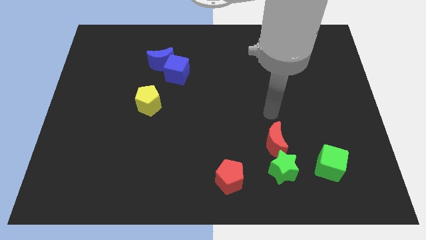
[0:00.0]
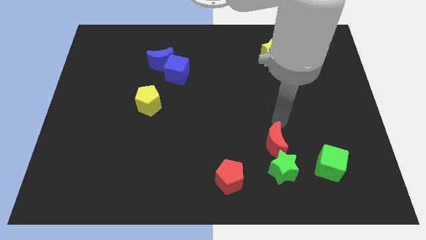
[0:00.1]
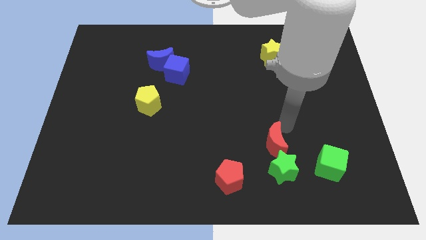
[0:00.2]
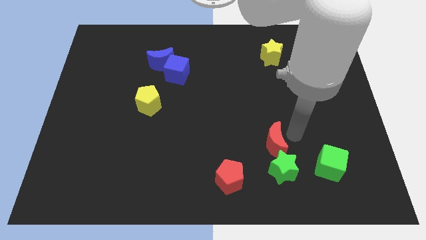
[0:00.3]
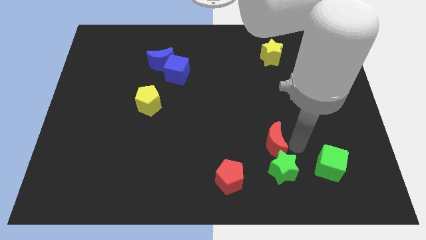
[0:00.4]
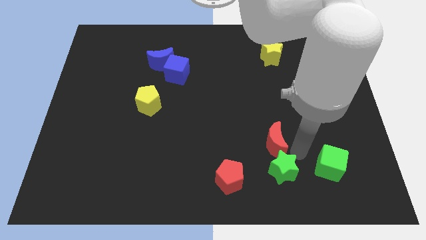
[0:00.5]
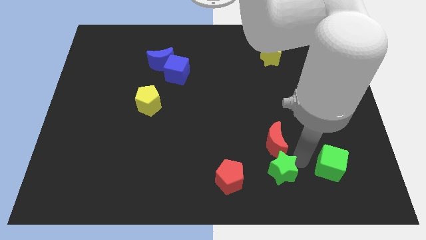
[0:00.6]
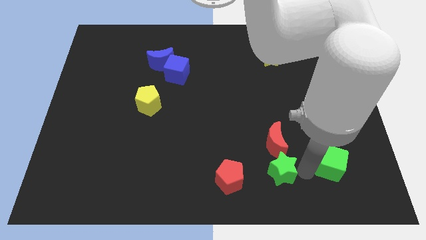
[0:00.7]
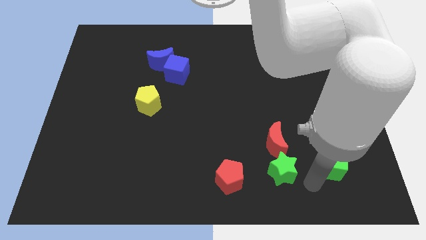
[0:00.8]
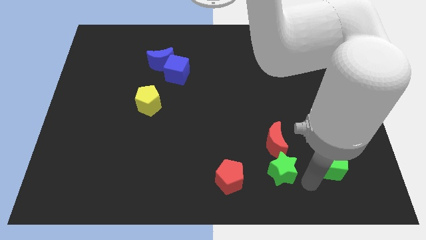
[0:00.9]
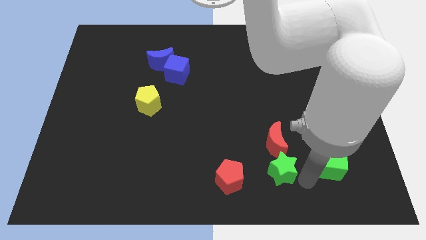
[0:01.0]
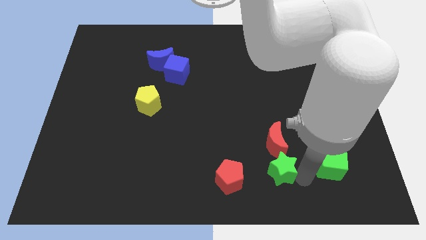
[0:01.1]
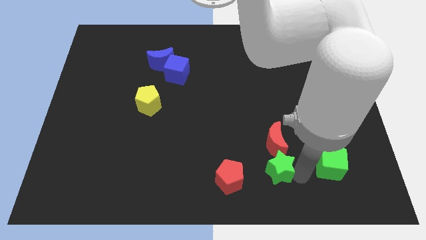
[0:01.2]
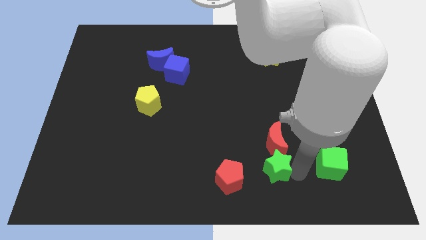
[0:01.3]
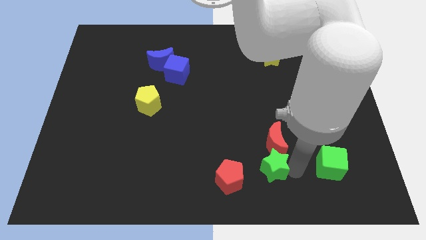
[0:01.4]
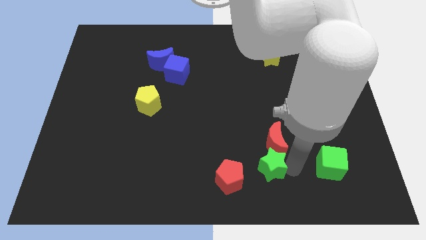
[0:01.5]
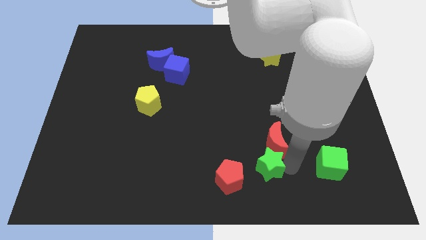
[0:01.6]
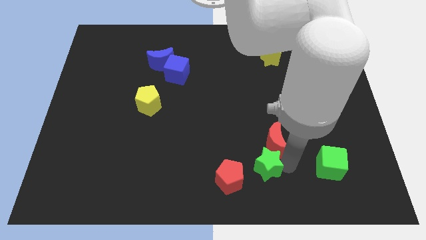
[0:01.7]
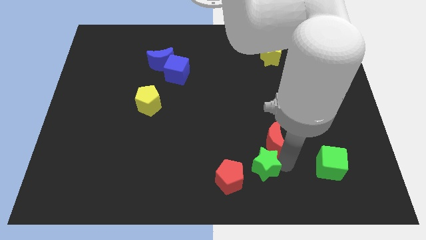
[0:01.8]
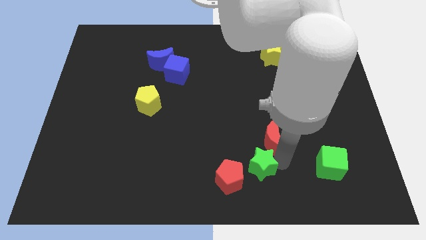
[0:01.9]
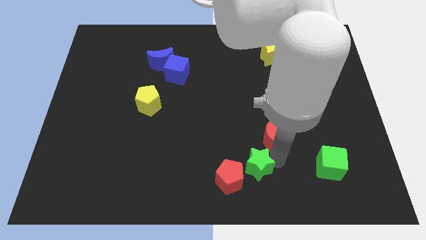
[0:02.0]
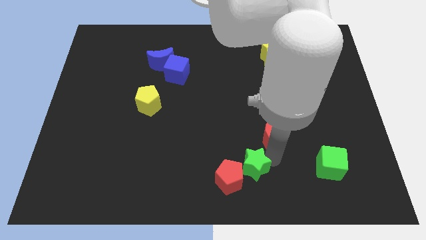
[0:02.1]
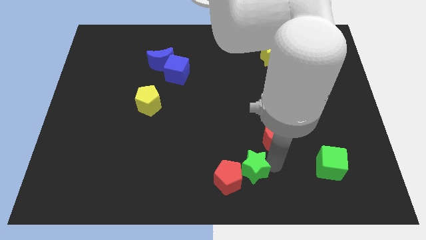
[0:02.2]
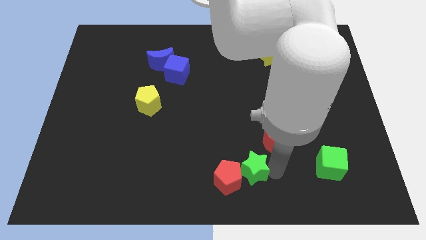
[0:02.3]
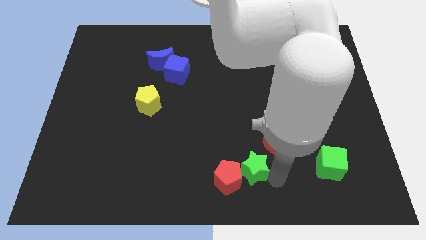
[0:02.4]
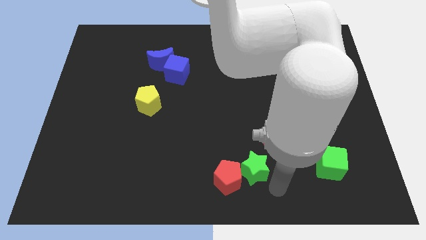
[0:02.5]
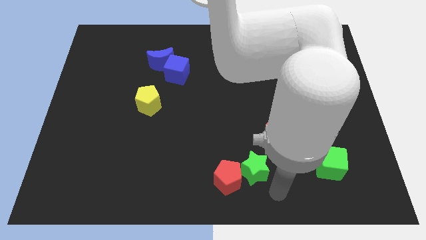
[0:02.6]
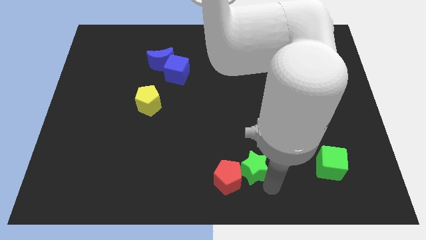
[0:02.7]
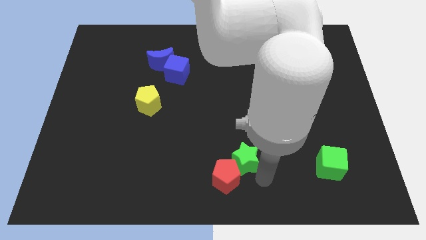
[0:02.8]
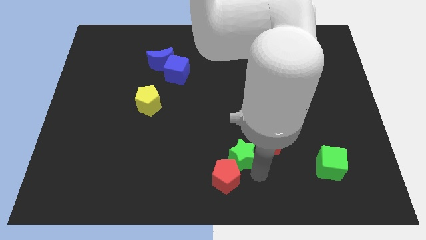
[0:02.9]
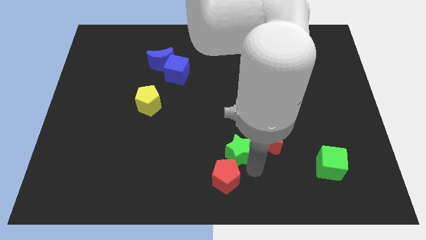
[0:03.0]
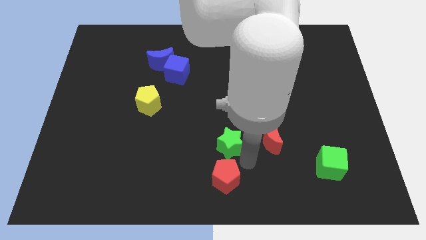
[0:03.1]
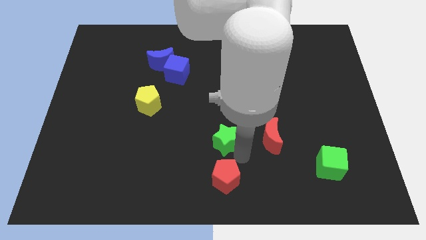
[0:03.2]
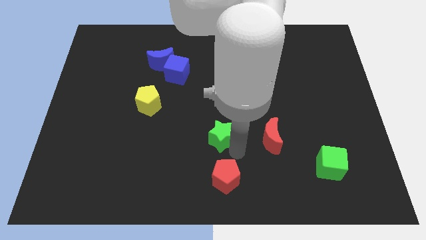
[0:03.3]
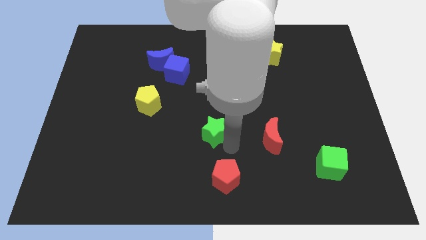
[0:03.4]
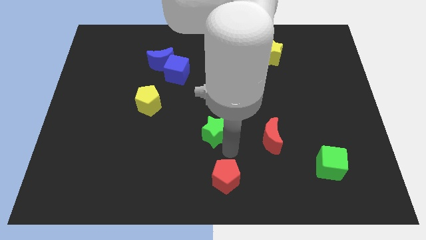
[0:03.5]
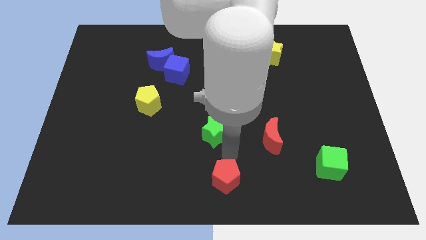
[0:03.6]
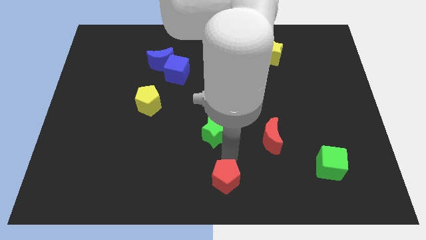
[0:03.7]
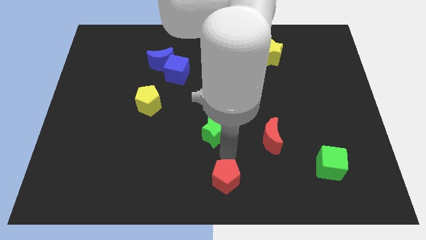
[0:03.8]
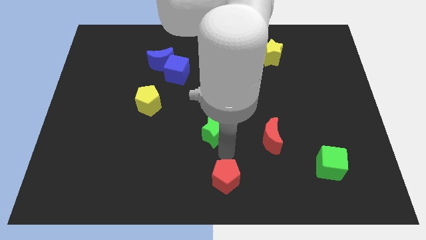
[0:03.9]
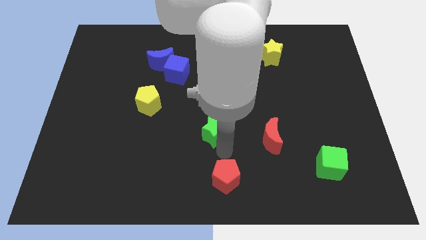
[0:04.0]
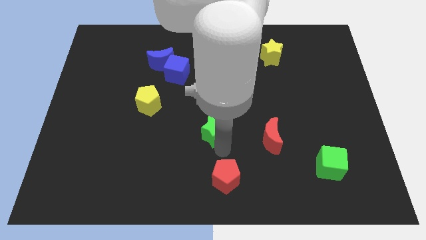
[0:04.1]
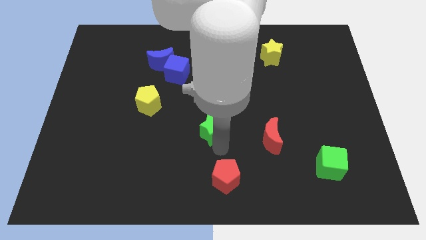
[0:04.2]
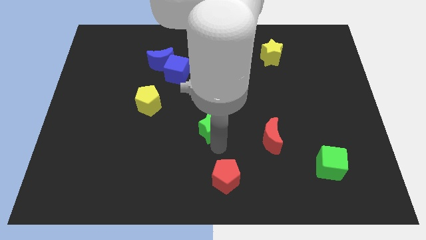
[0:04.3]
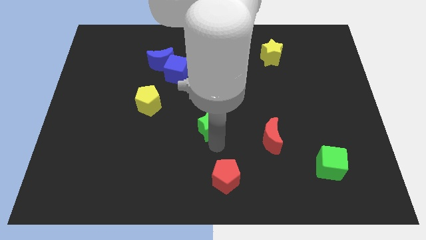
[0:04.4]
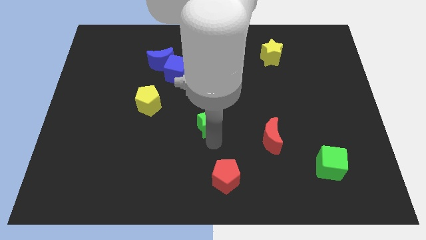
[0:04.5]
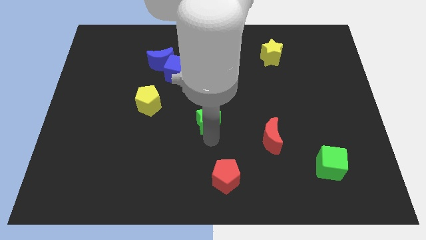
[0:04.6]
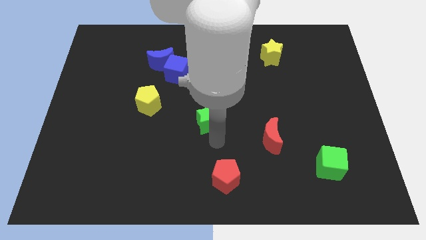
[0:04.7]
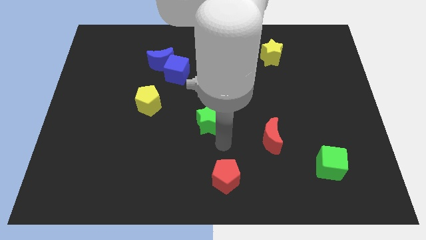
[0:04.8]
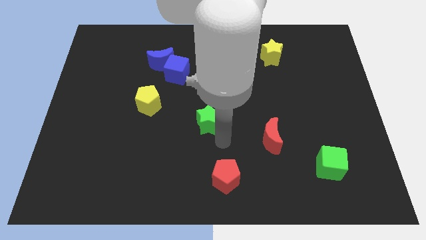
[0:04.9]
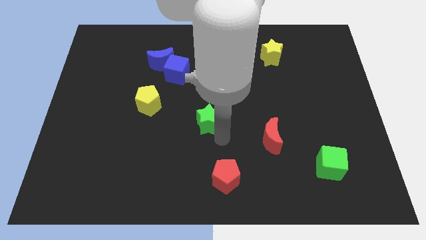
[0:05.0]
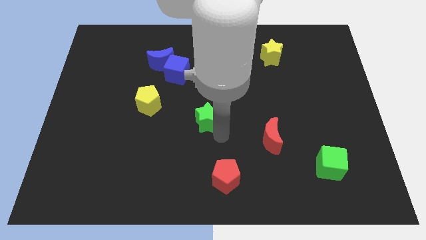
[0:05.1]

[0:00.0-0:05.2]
push the green star upwards and then to the left

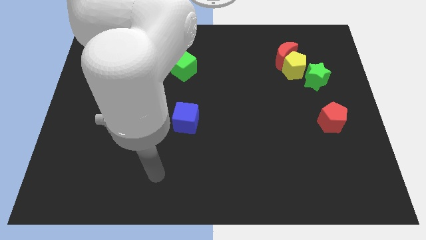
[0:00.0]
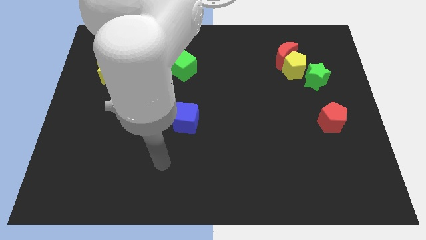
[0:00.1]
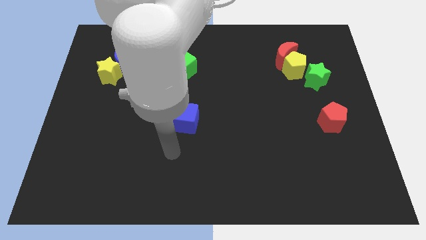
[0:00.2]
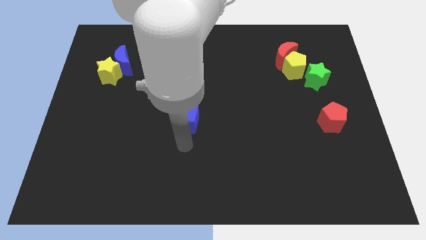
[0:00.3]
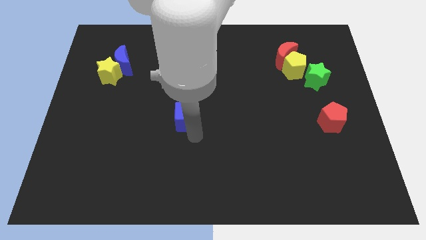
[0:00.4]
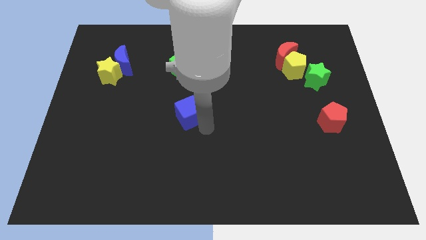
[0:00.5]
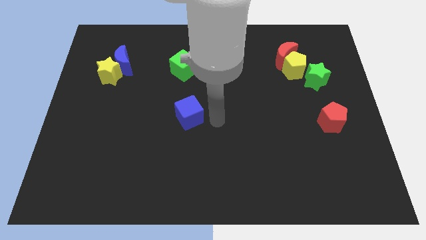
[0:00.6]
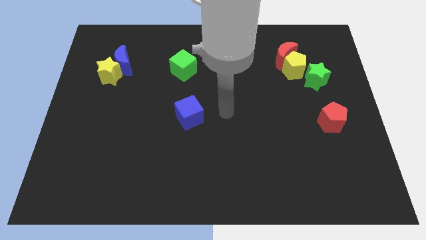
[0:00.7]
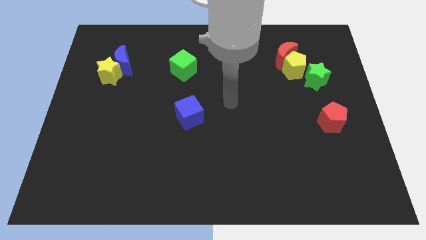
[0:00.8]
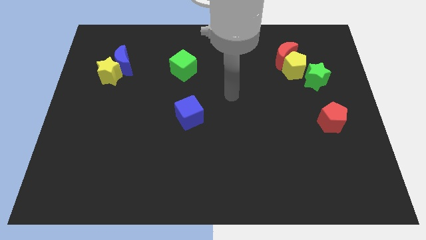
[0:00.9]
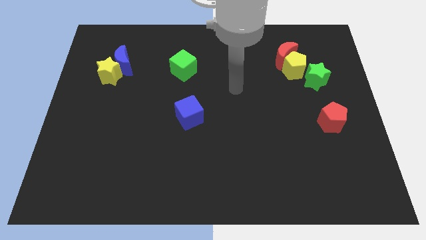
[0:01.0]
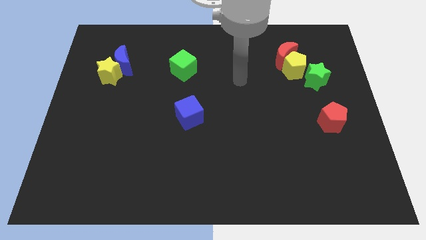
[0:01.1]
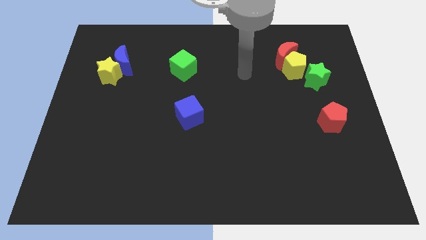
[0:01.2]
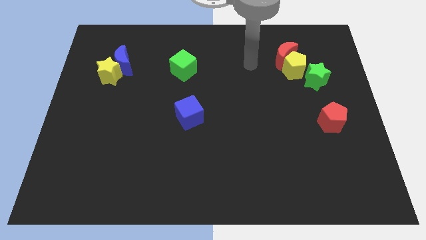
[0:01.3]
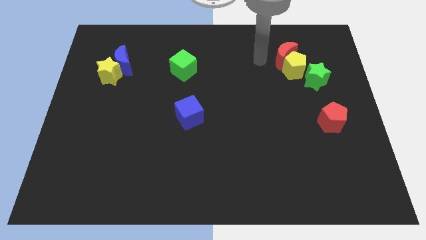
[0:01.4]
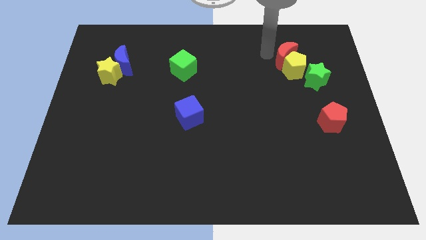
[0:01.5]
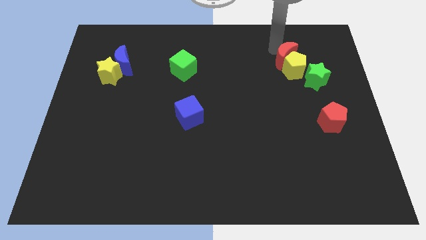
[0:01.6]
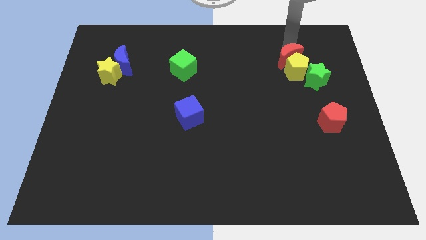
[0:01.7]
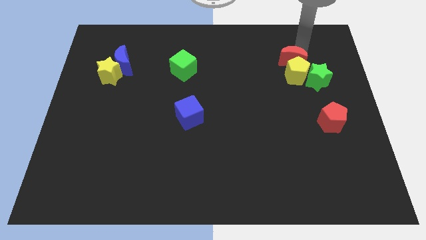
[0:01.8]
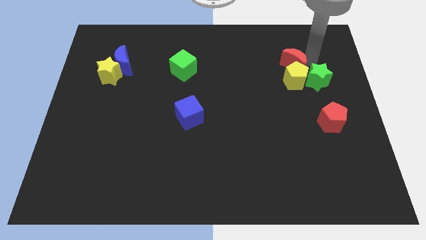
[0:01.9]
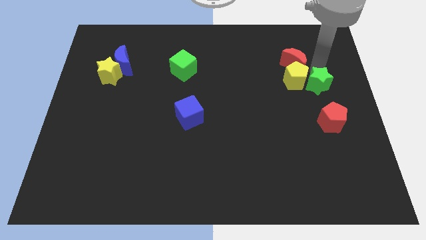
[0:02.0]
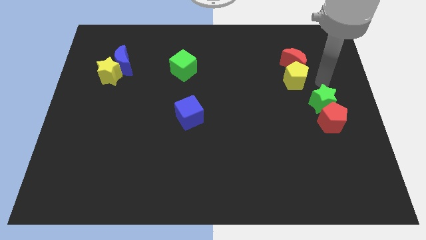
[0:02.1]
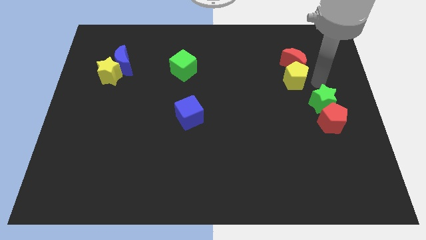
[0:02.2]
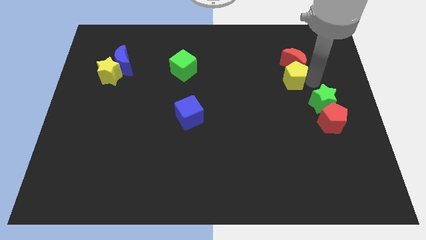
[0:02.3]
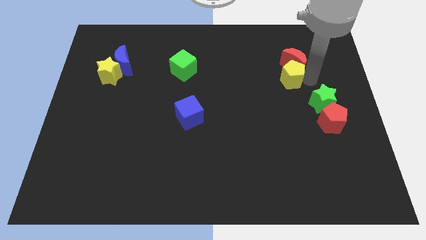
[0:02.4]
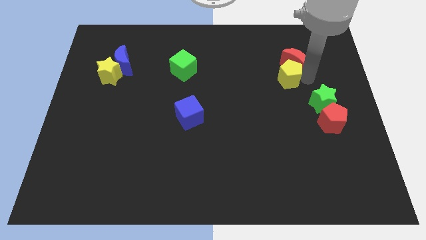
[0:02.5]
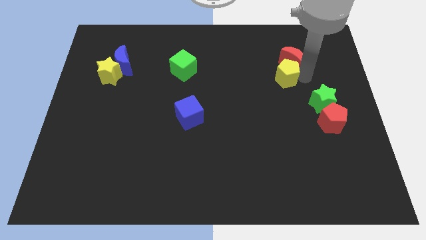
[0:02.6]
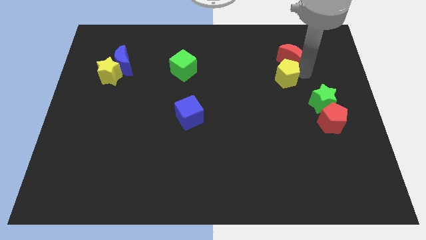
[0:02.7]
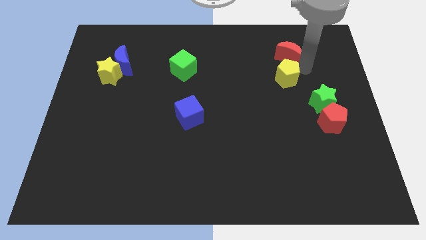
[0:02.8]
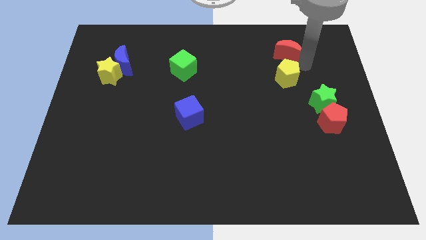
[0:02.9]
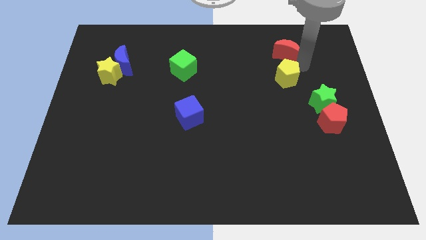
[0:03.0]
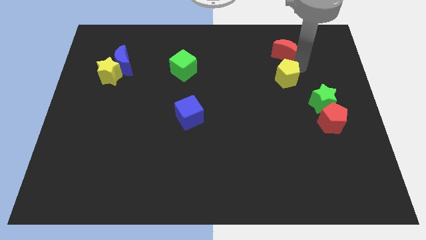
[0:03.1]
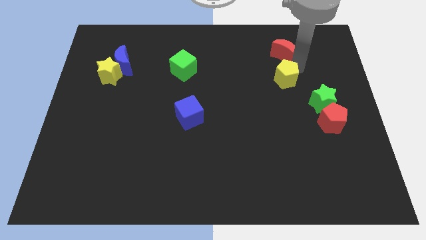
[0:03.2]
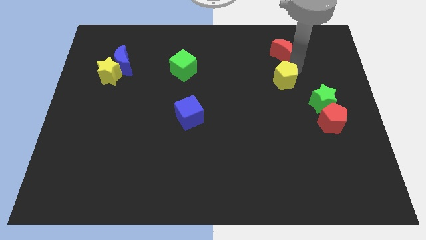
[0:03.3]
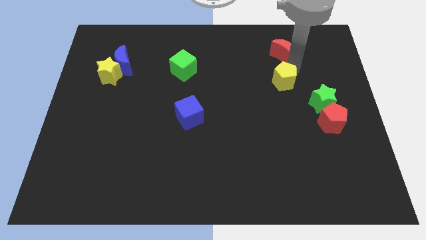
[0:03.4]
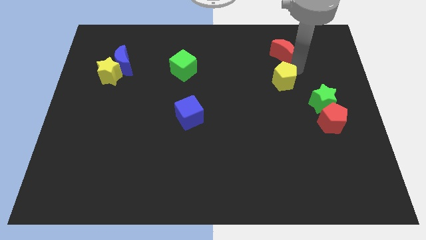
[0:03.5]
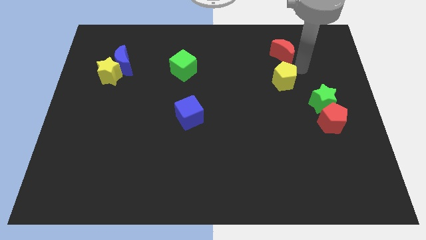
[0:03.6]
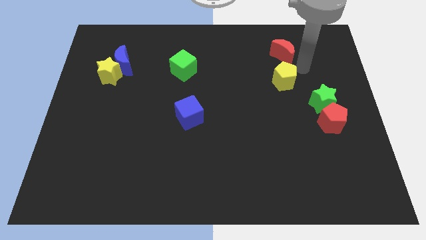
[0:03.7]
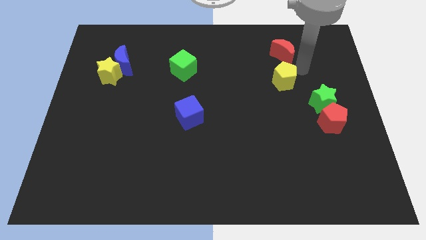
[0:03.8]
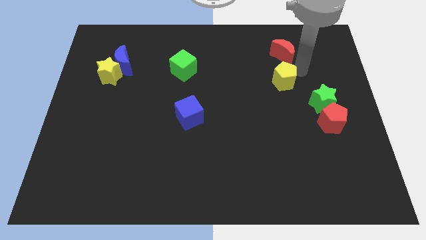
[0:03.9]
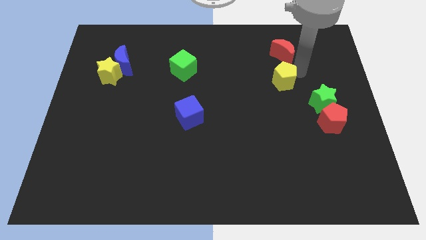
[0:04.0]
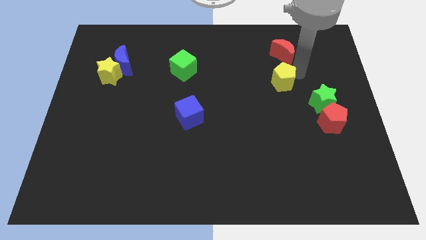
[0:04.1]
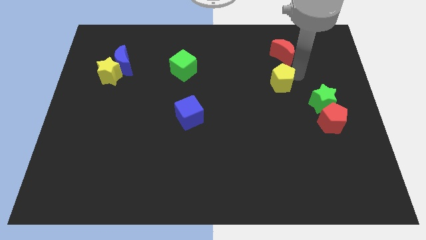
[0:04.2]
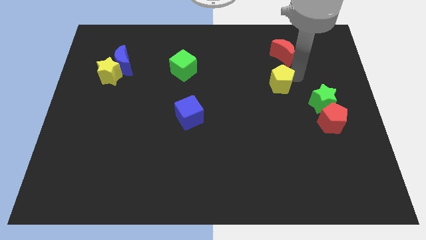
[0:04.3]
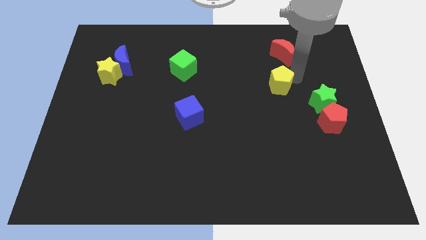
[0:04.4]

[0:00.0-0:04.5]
push the yellow pentagon a little bit diagonally down and left
